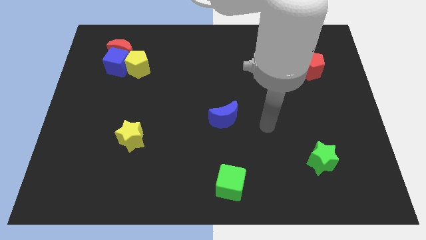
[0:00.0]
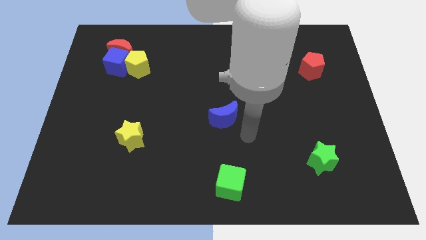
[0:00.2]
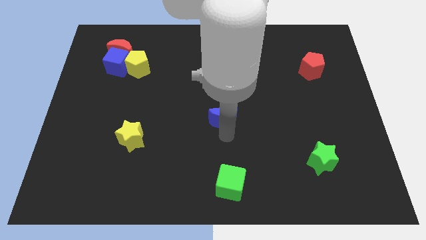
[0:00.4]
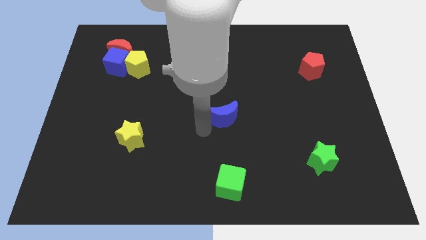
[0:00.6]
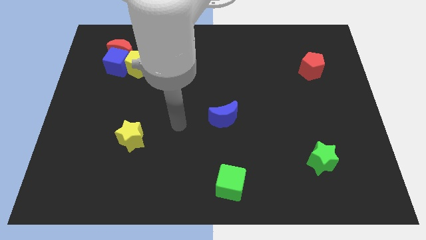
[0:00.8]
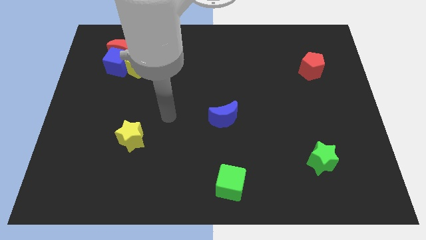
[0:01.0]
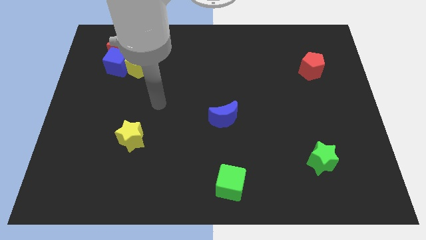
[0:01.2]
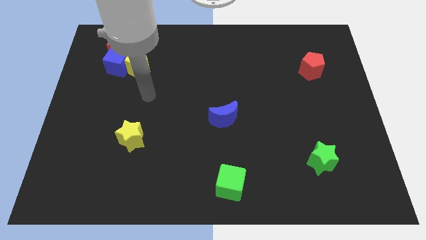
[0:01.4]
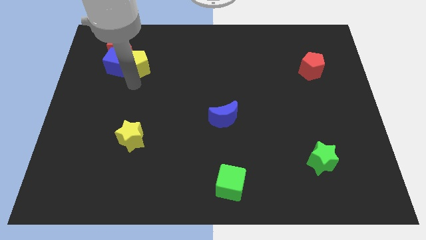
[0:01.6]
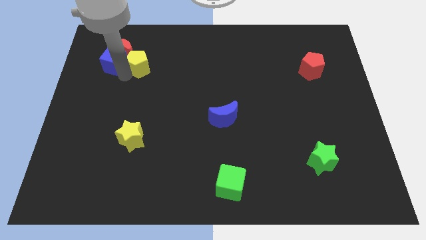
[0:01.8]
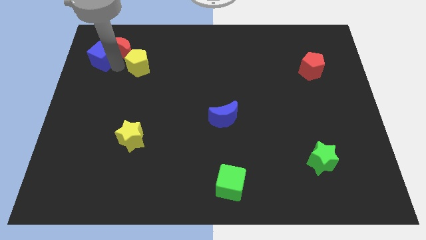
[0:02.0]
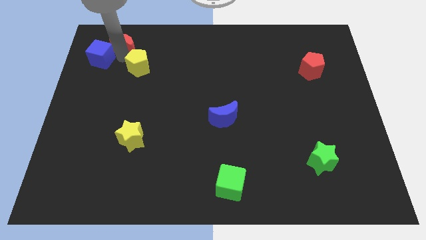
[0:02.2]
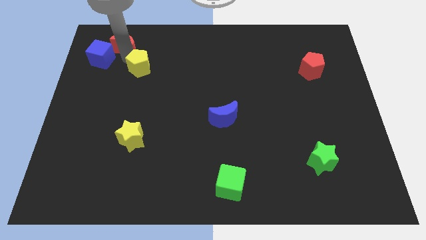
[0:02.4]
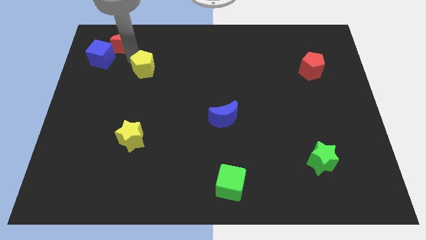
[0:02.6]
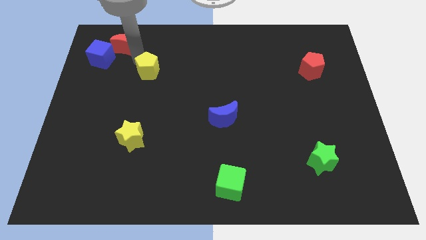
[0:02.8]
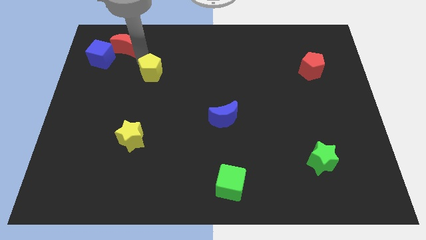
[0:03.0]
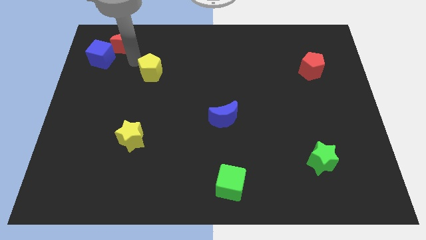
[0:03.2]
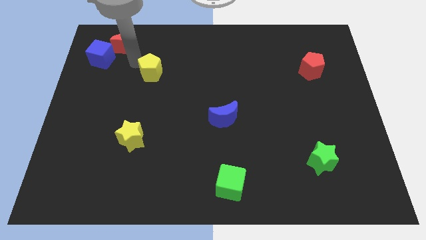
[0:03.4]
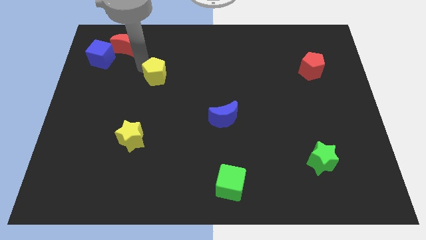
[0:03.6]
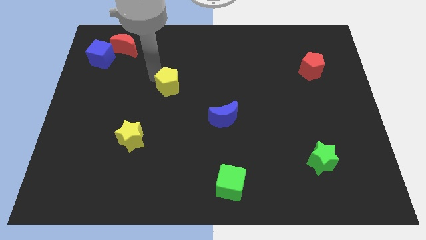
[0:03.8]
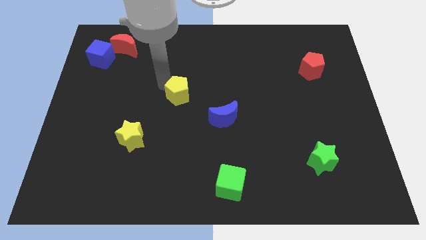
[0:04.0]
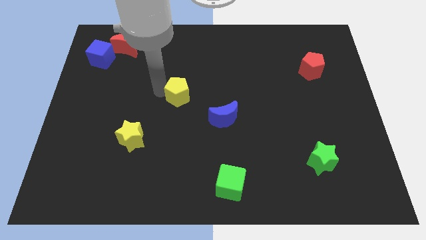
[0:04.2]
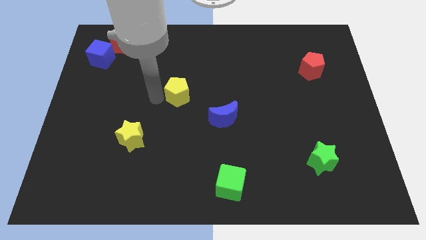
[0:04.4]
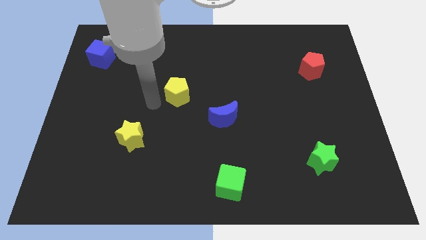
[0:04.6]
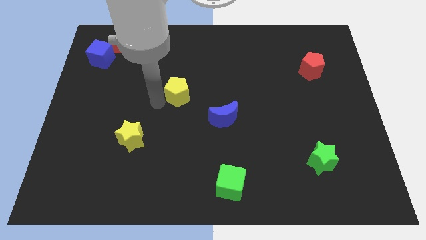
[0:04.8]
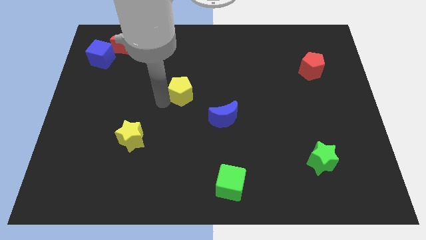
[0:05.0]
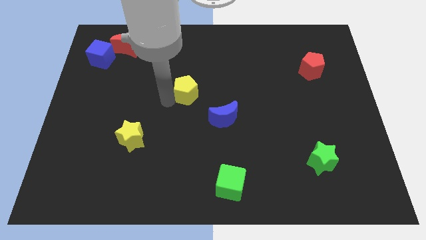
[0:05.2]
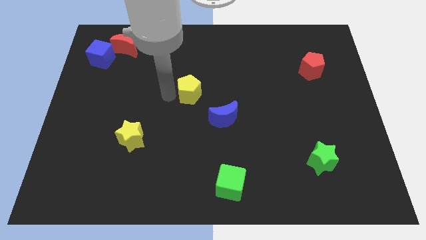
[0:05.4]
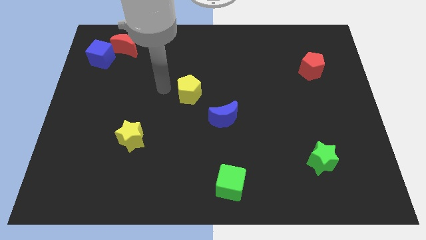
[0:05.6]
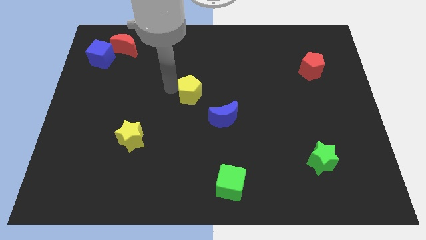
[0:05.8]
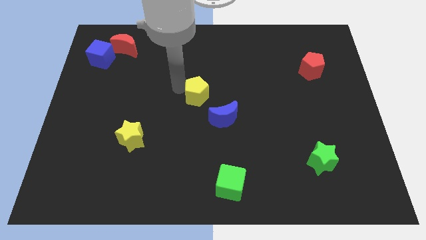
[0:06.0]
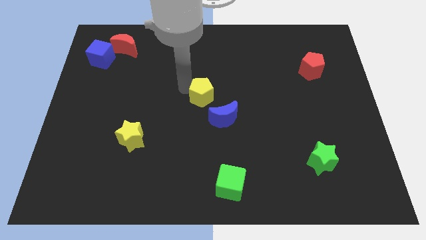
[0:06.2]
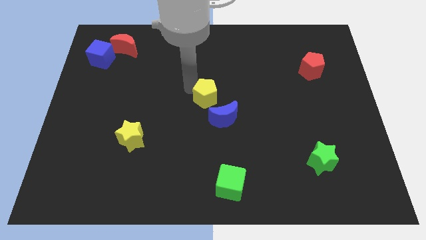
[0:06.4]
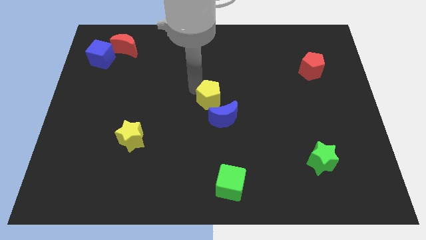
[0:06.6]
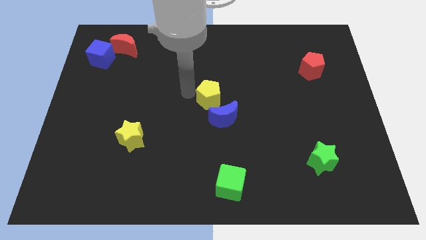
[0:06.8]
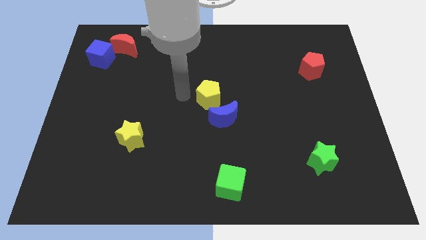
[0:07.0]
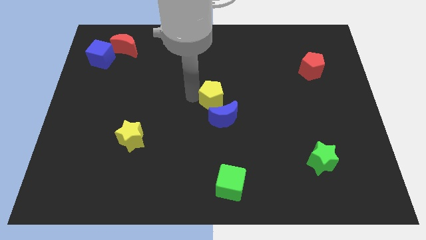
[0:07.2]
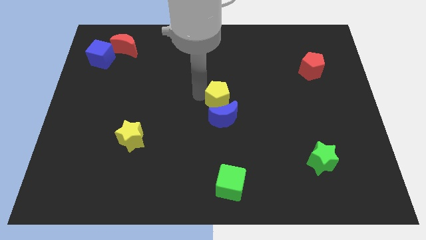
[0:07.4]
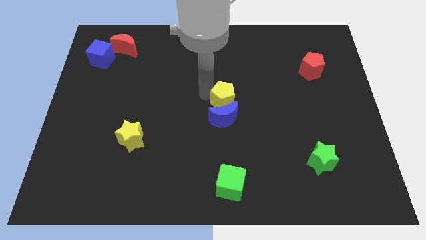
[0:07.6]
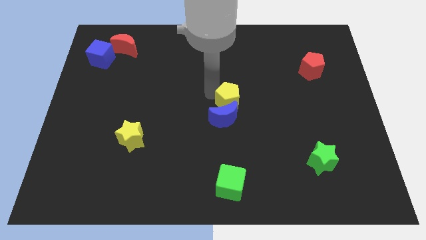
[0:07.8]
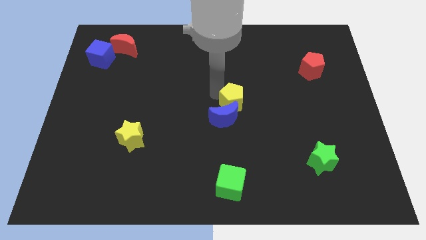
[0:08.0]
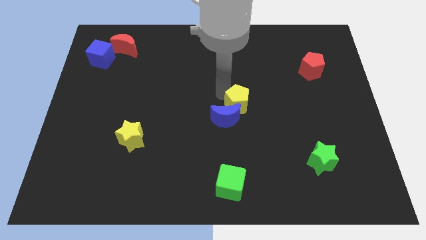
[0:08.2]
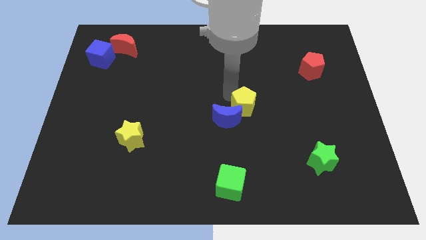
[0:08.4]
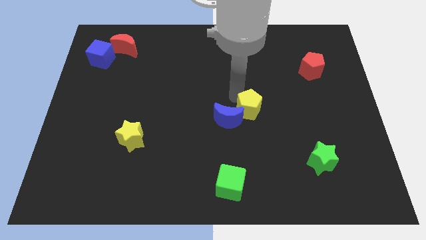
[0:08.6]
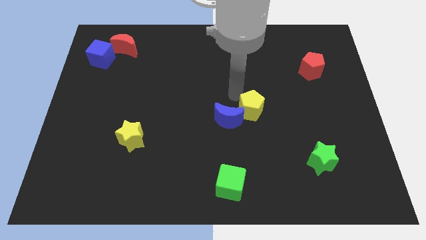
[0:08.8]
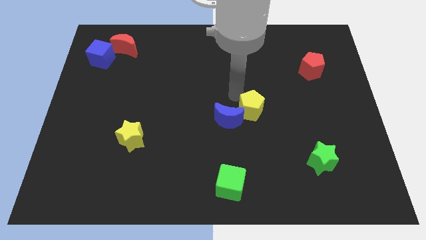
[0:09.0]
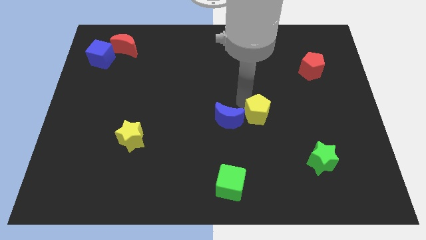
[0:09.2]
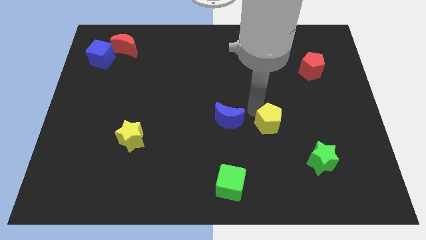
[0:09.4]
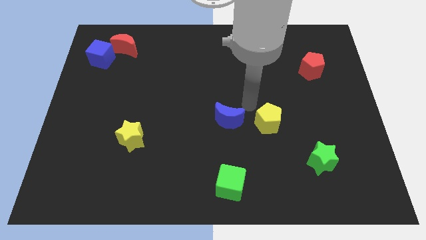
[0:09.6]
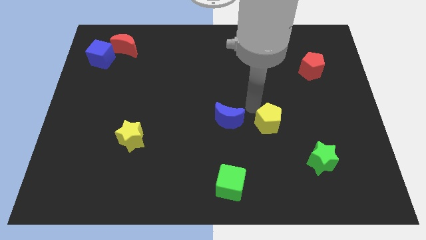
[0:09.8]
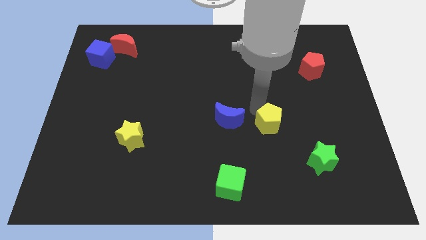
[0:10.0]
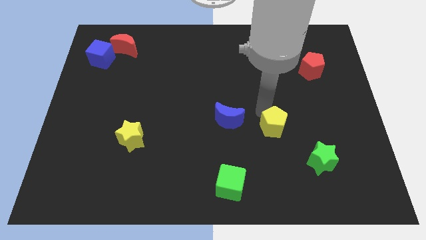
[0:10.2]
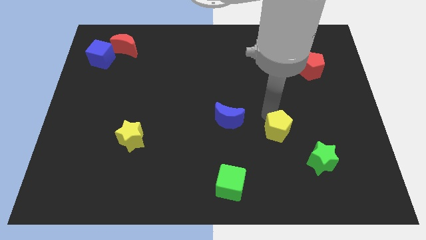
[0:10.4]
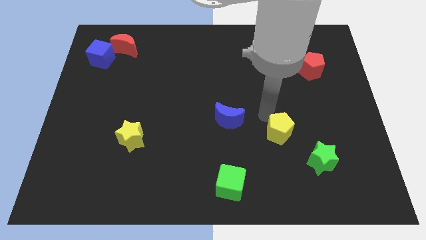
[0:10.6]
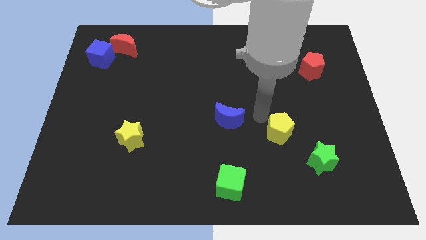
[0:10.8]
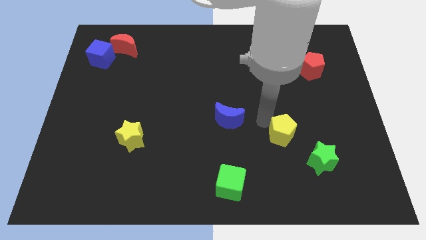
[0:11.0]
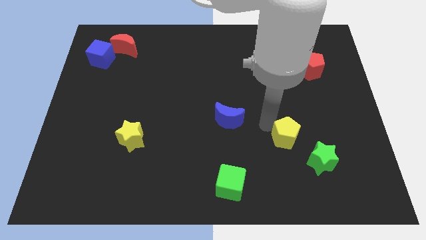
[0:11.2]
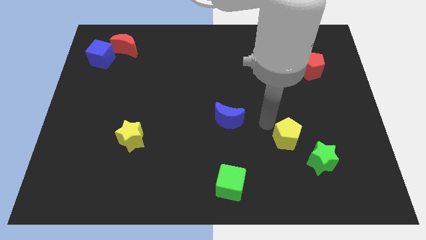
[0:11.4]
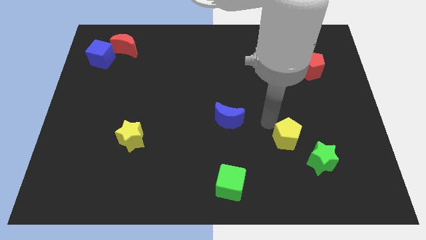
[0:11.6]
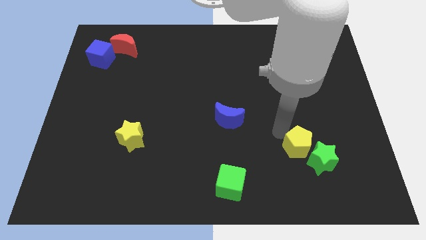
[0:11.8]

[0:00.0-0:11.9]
put the yellow pentagon close to the green star
